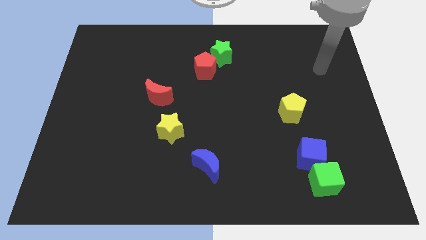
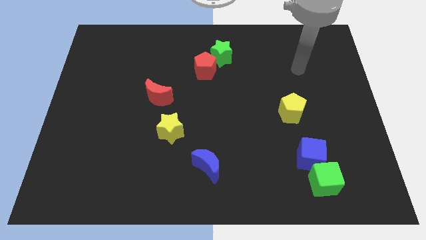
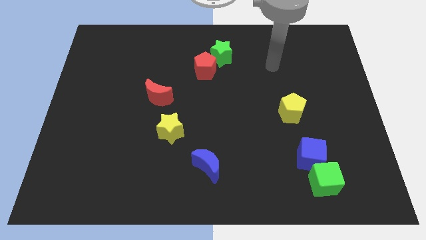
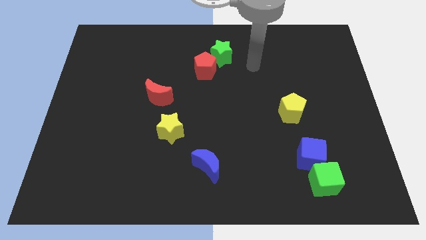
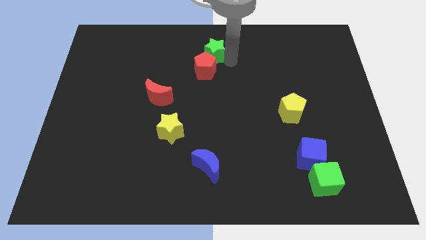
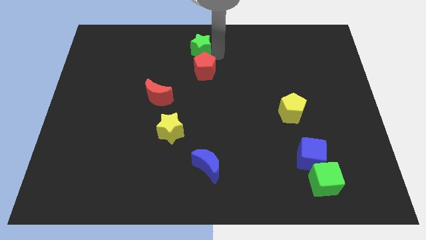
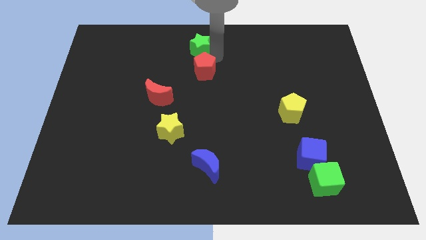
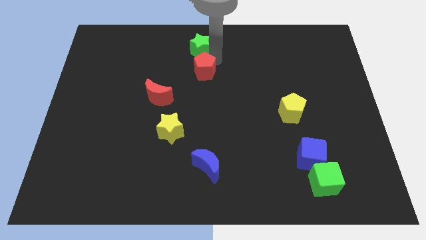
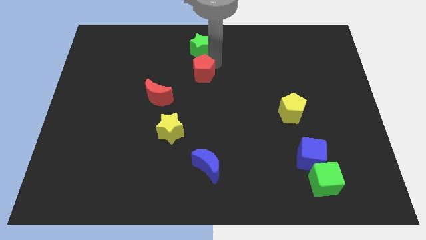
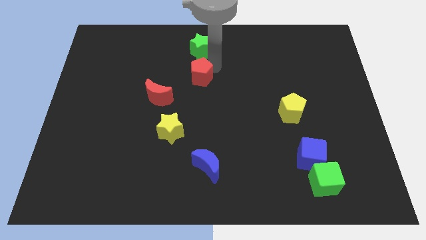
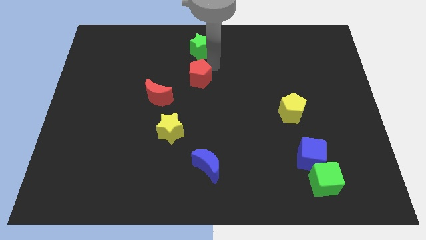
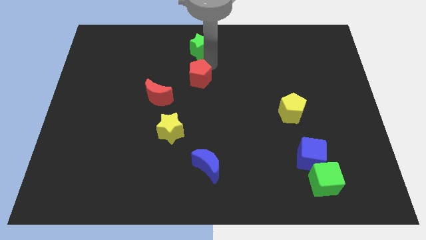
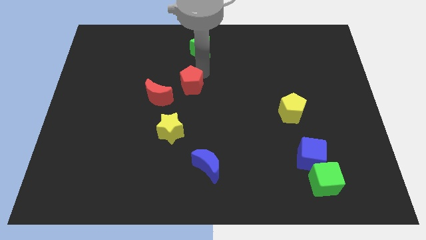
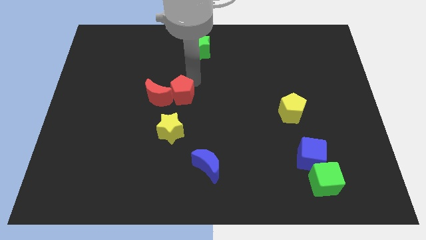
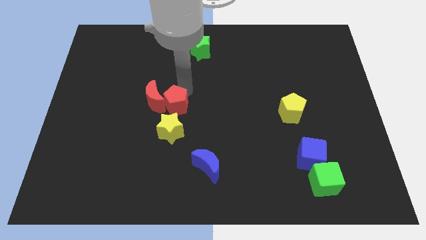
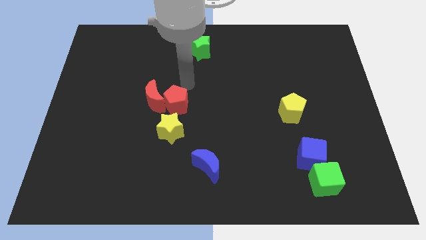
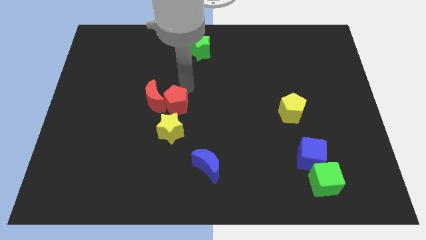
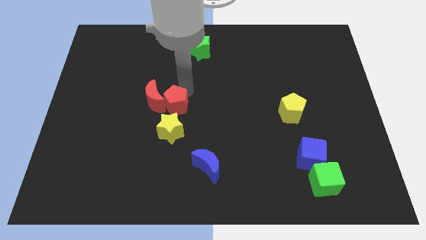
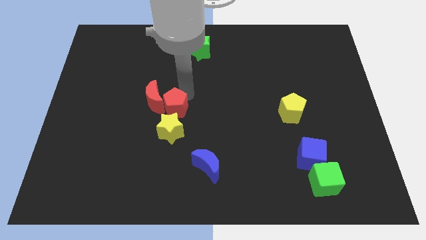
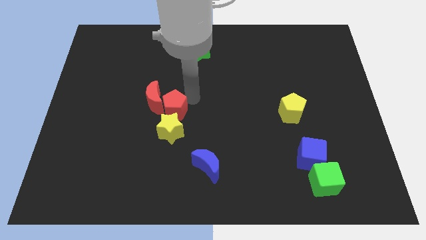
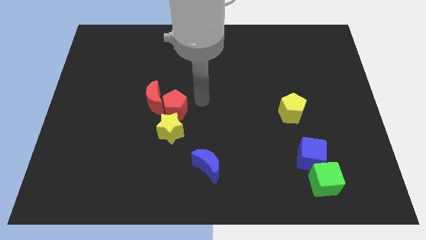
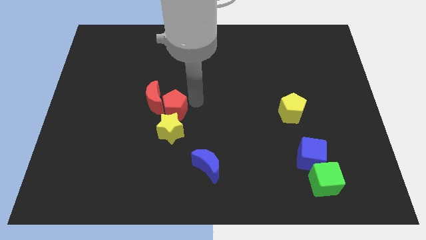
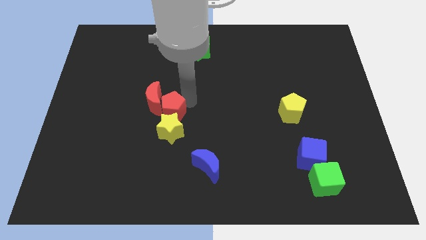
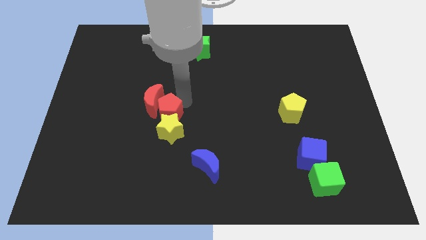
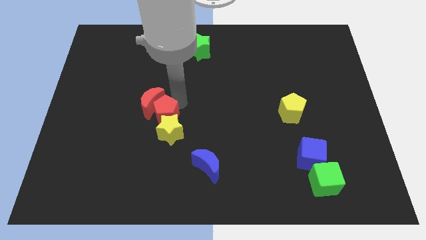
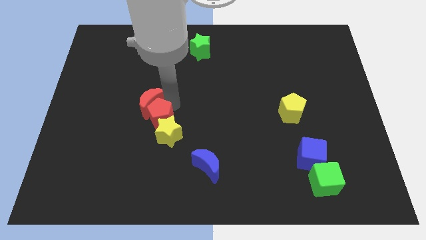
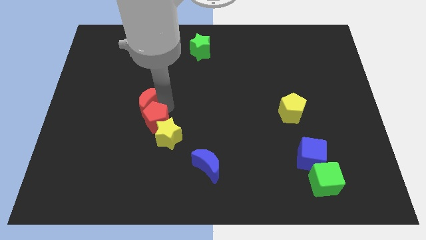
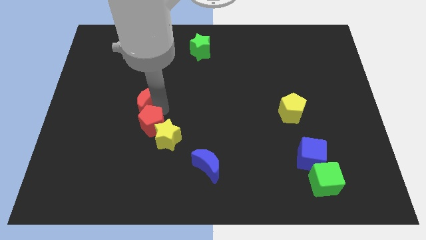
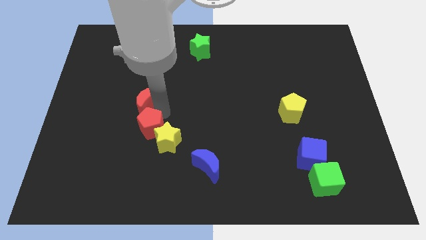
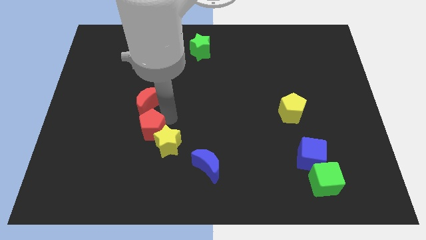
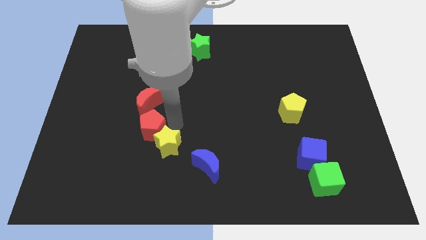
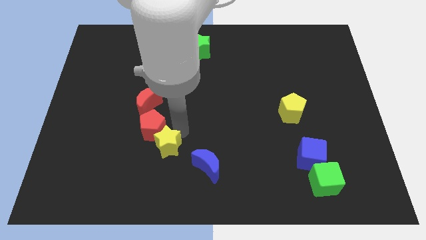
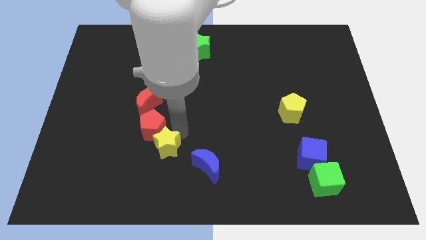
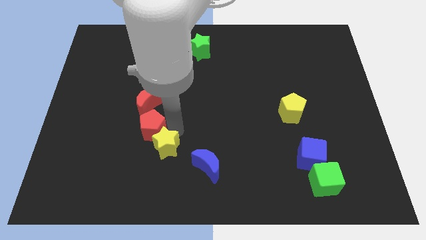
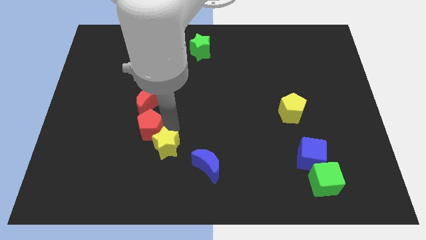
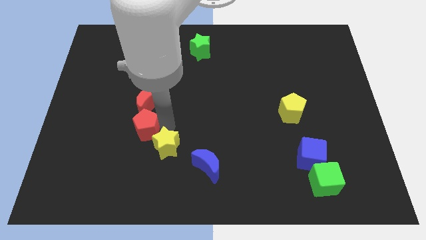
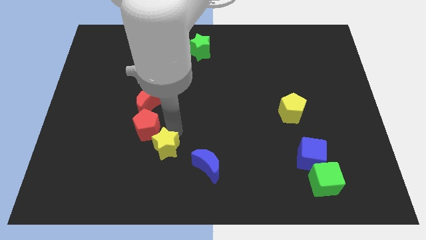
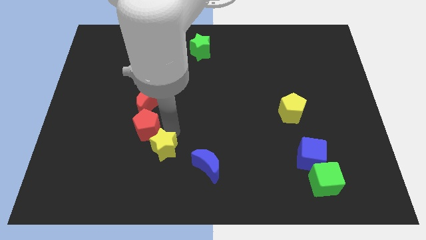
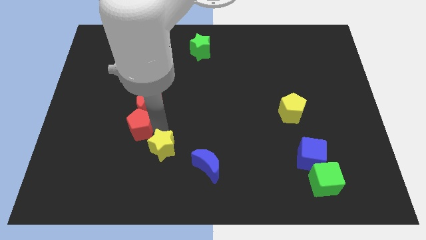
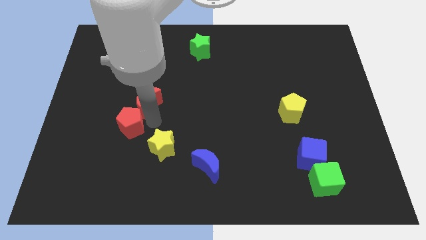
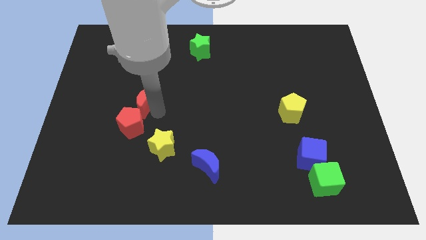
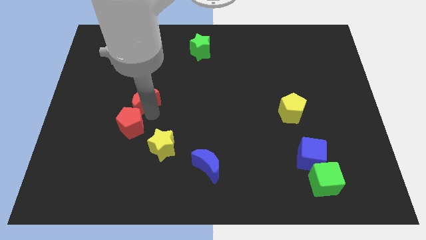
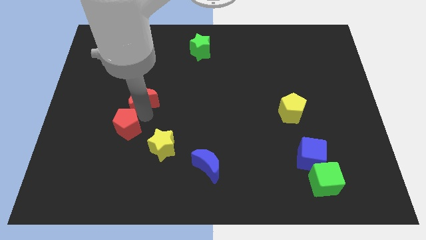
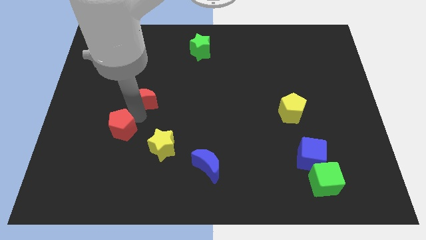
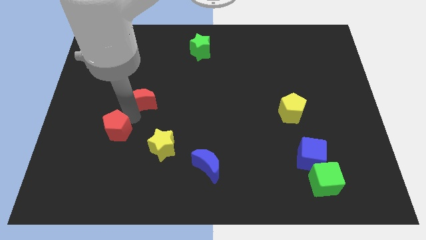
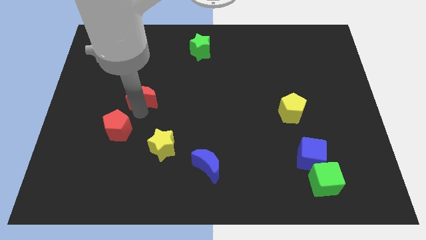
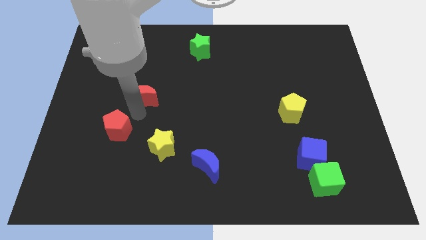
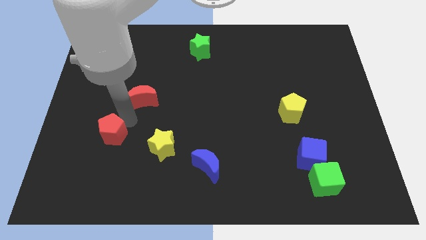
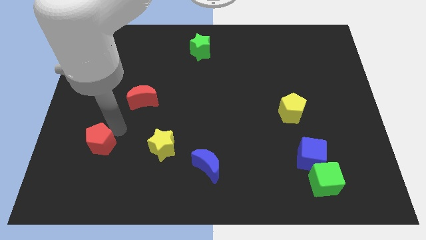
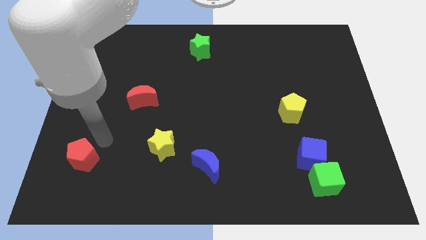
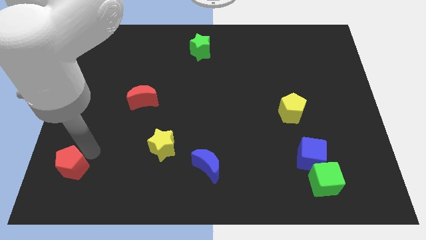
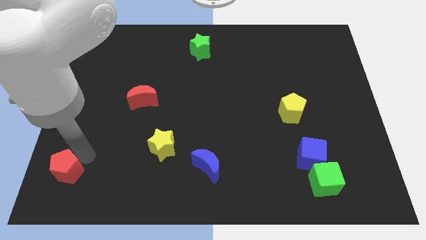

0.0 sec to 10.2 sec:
slide the red pentagon to the bottom left of the board

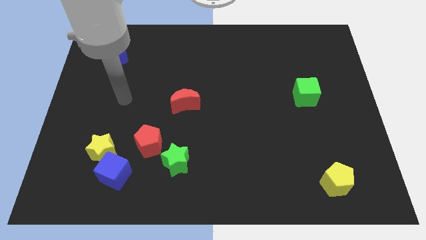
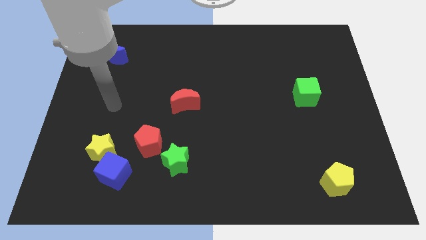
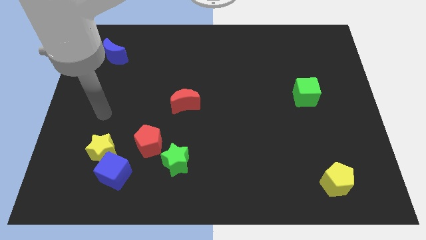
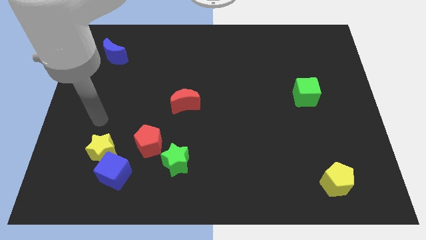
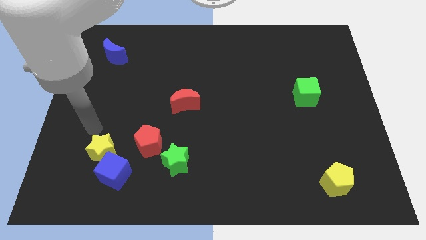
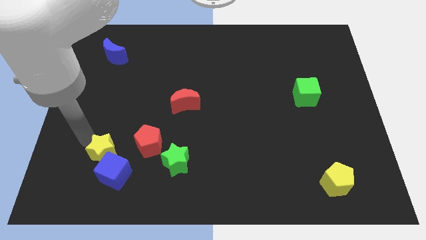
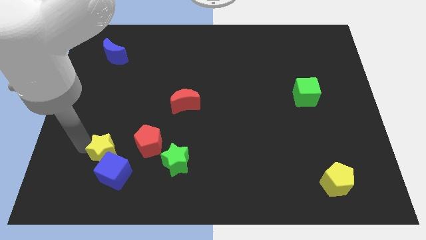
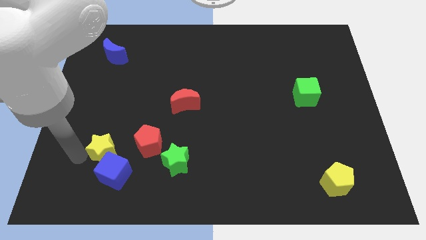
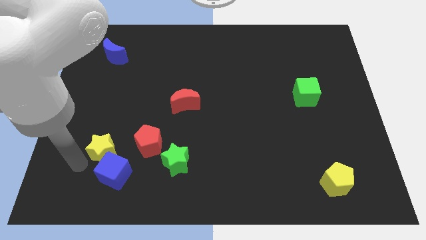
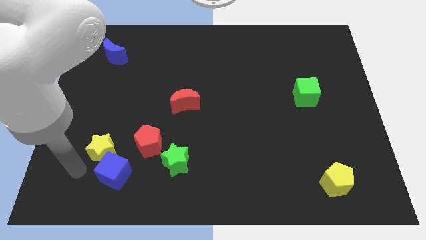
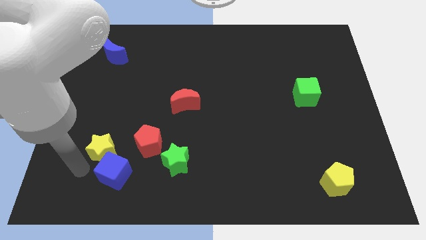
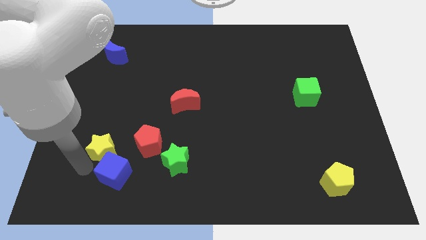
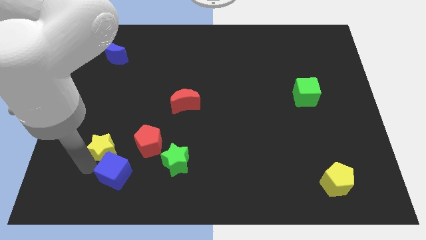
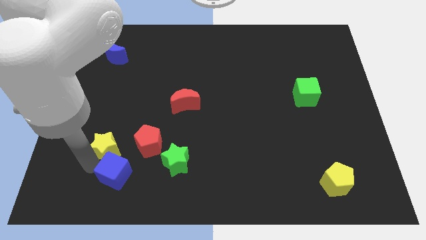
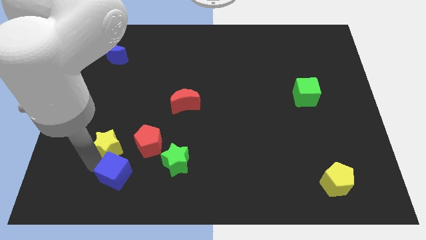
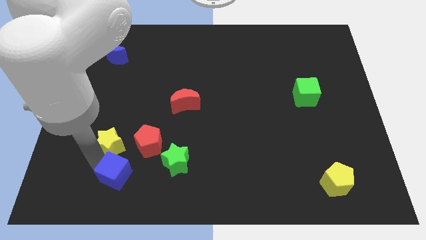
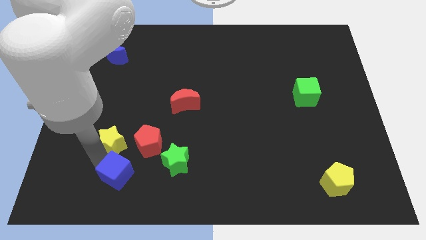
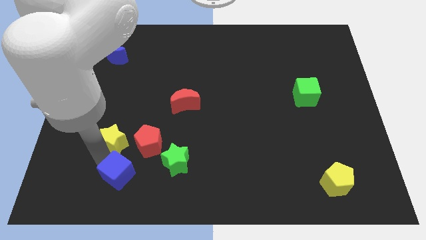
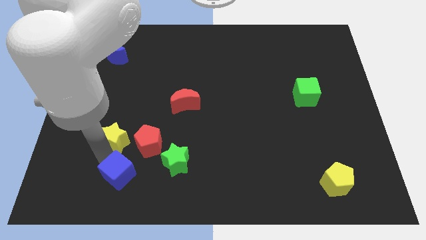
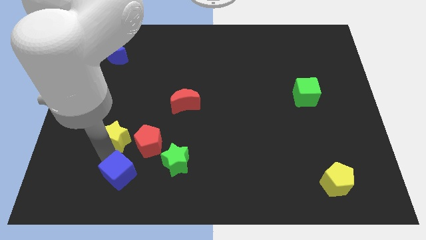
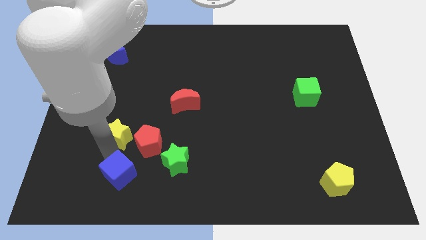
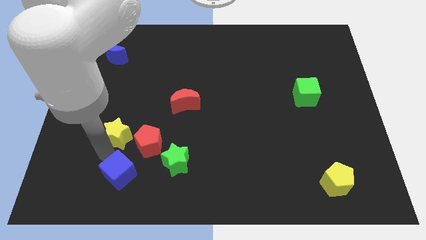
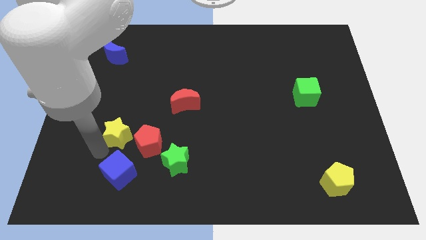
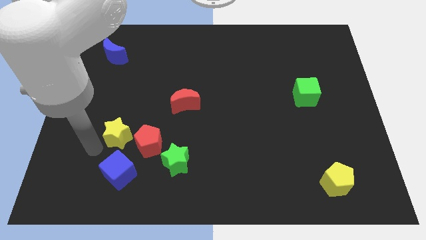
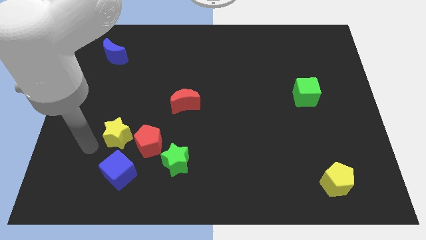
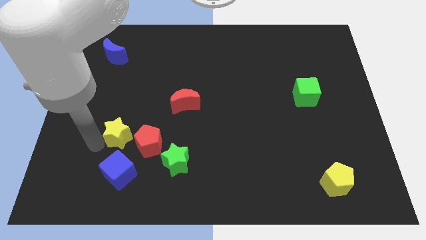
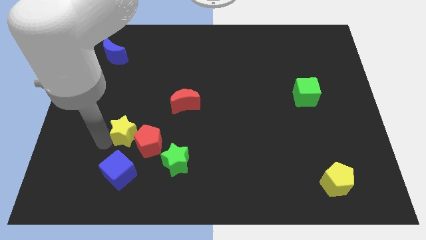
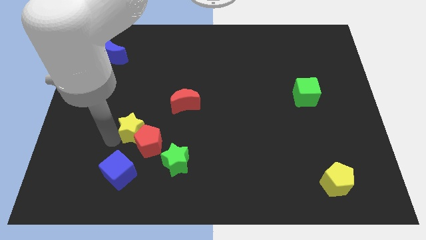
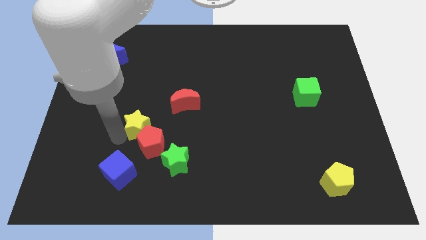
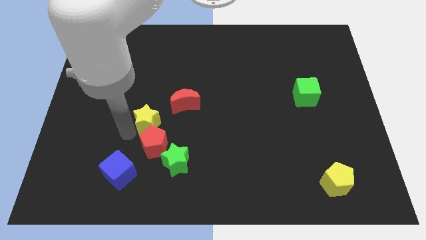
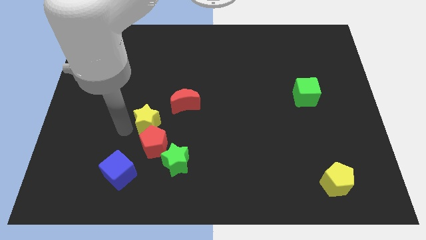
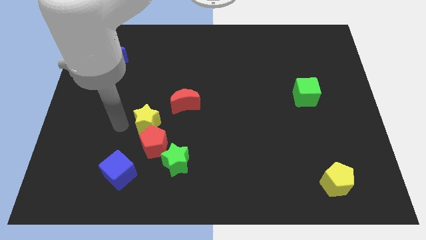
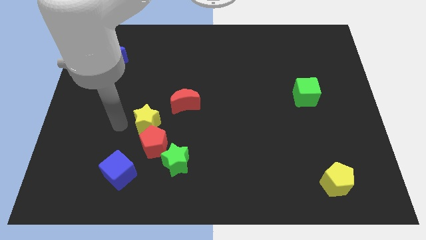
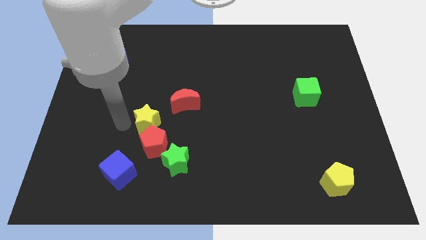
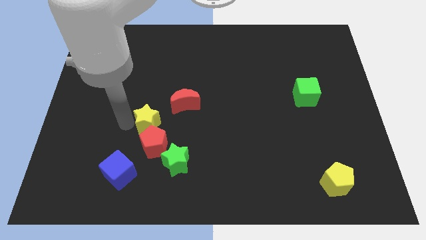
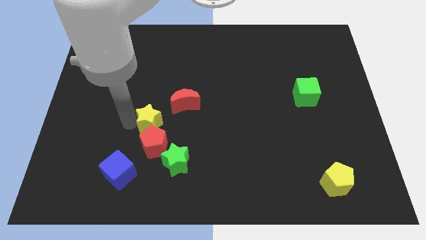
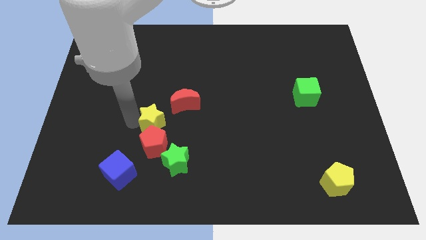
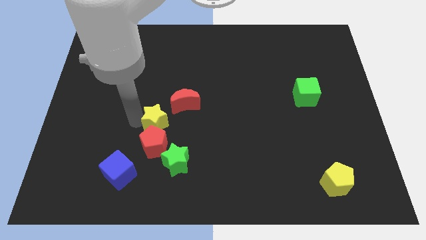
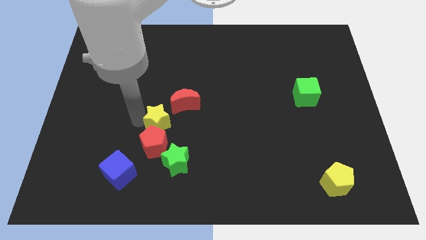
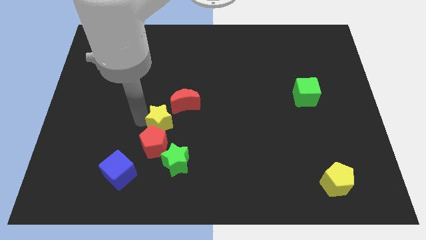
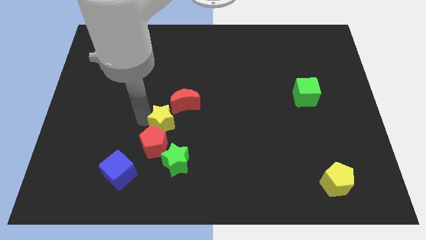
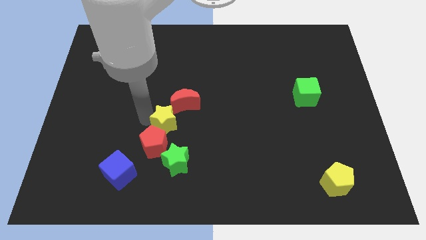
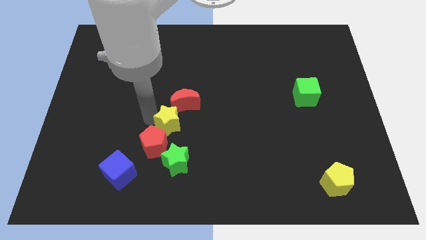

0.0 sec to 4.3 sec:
move the yellow star to the middle
